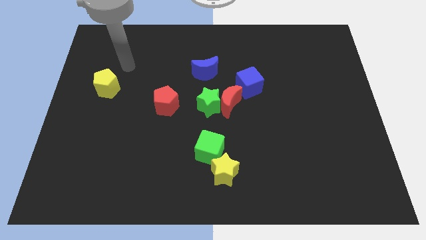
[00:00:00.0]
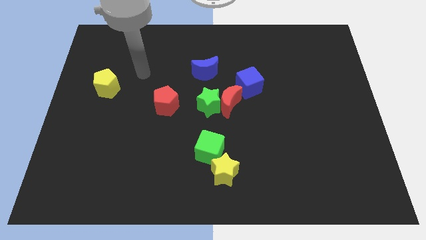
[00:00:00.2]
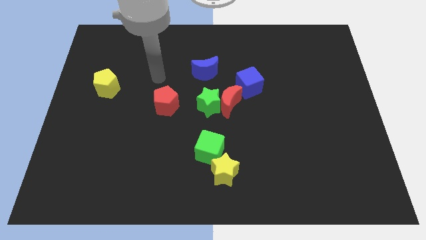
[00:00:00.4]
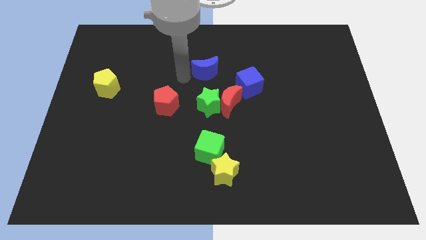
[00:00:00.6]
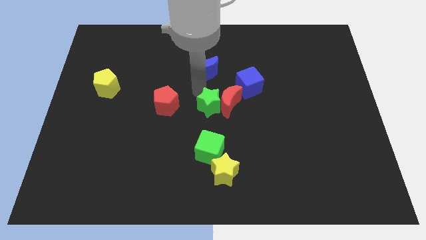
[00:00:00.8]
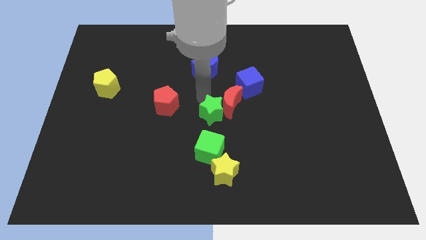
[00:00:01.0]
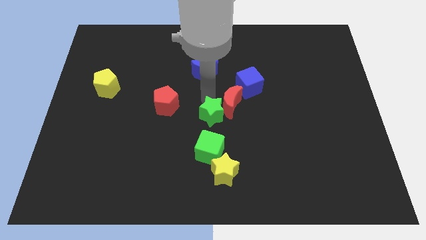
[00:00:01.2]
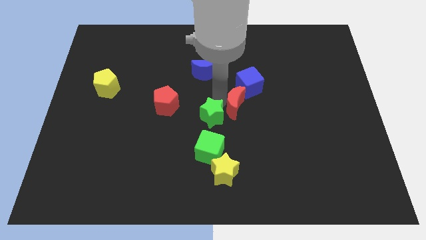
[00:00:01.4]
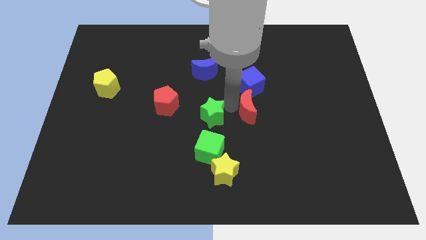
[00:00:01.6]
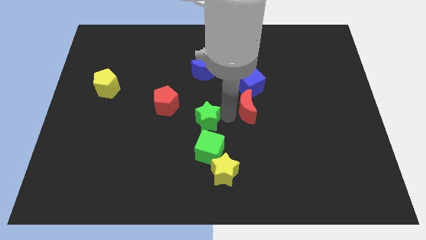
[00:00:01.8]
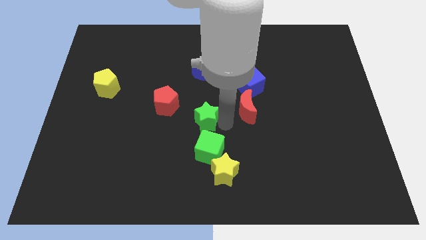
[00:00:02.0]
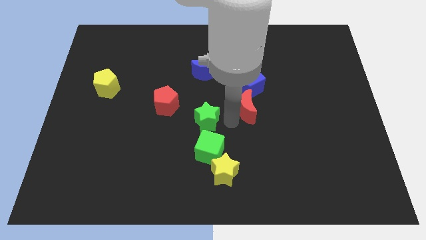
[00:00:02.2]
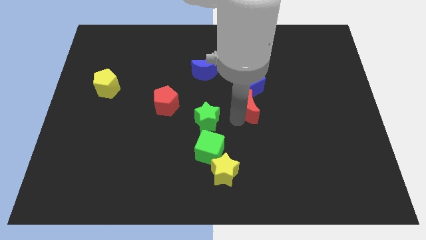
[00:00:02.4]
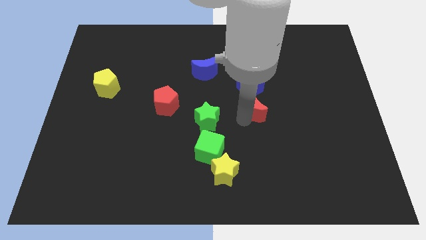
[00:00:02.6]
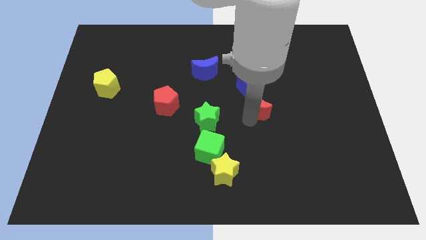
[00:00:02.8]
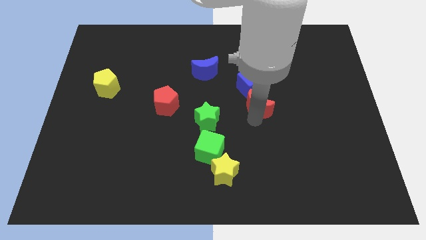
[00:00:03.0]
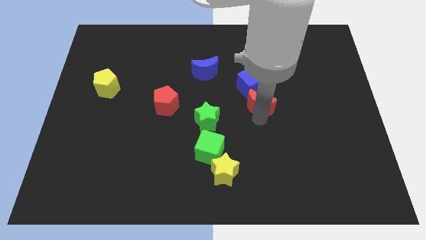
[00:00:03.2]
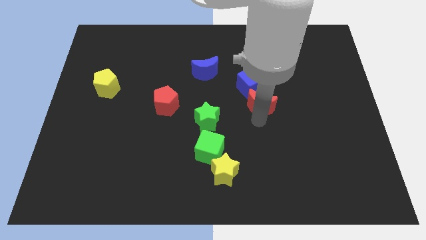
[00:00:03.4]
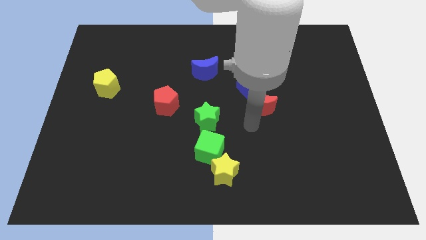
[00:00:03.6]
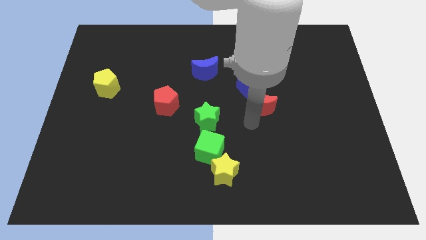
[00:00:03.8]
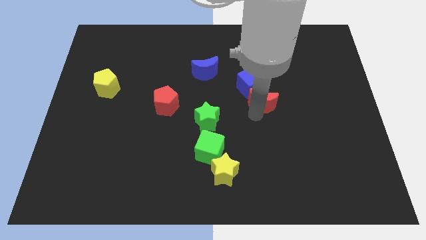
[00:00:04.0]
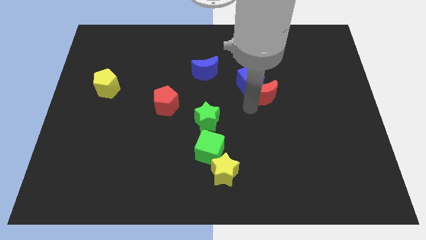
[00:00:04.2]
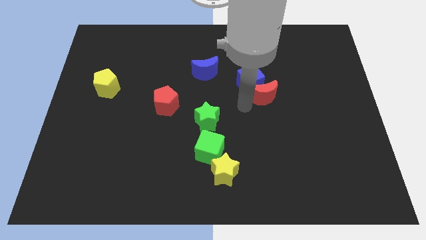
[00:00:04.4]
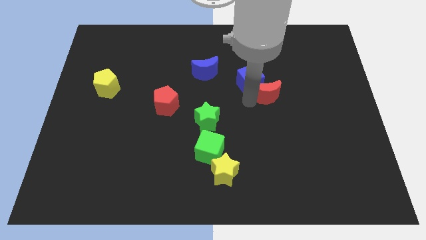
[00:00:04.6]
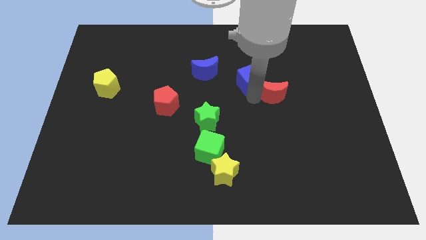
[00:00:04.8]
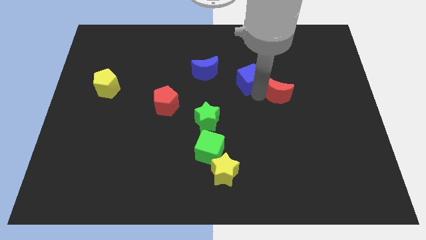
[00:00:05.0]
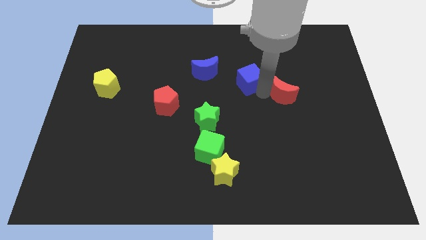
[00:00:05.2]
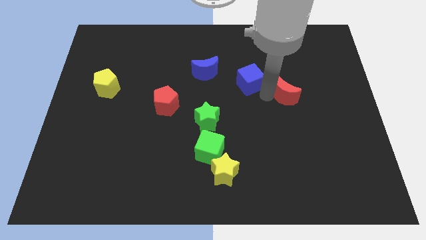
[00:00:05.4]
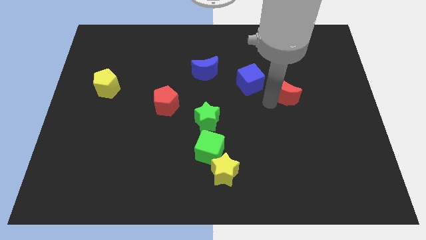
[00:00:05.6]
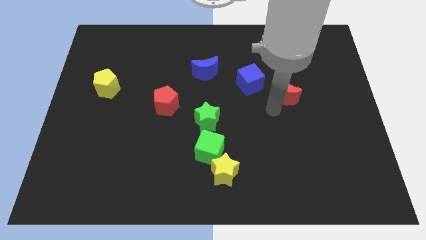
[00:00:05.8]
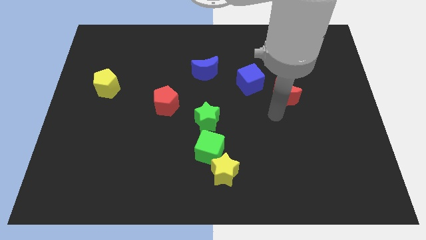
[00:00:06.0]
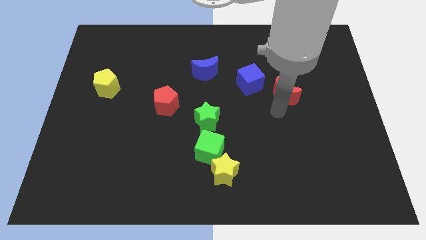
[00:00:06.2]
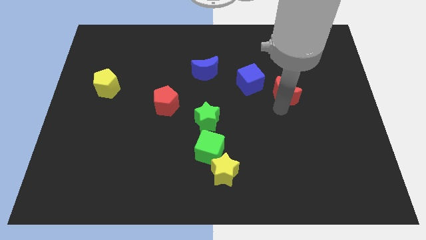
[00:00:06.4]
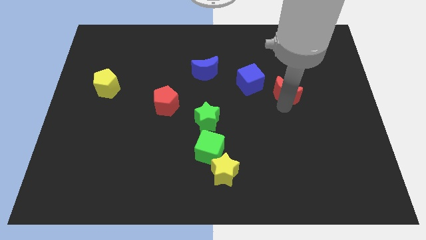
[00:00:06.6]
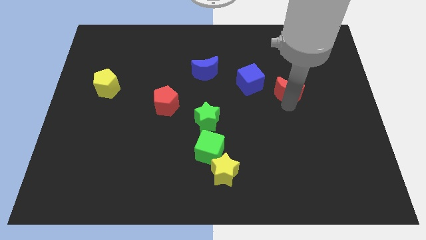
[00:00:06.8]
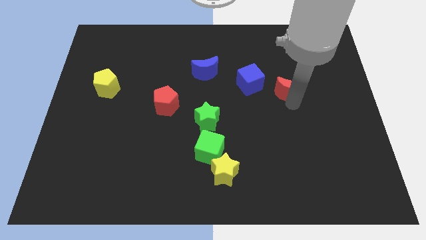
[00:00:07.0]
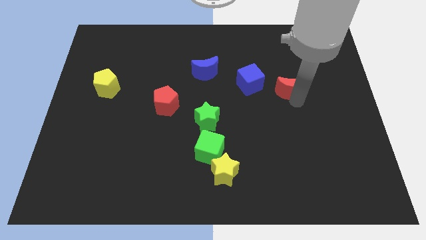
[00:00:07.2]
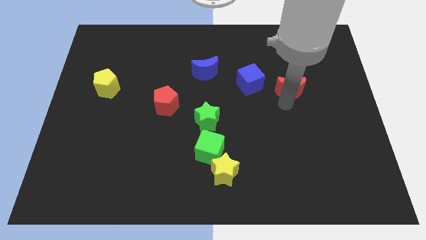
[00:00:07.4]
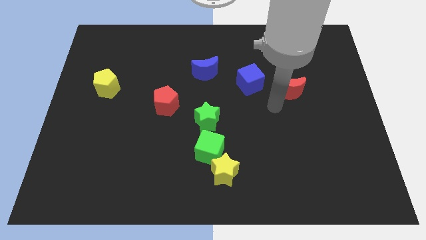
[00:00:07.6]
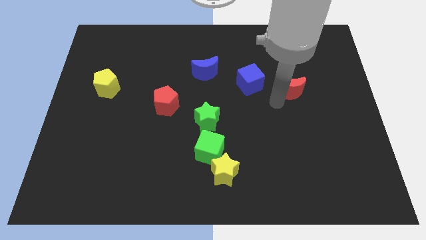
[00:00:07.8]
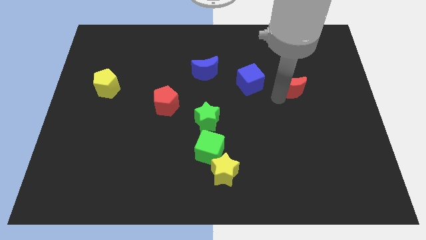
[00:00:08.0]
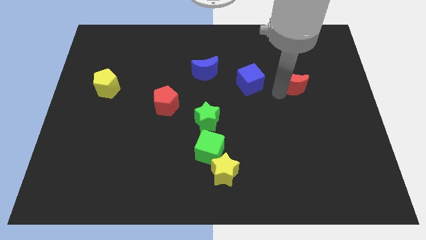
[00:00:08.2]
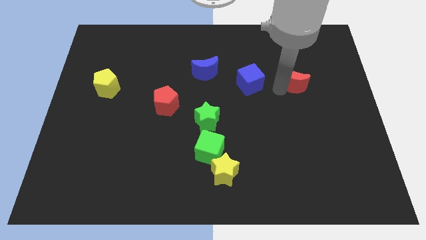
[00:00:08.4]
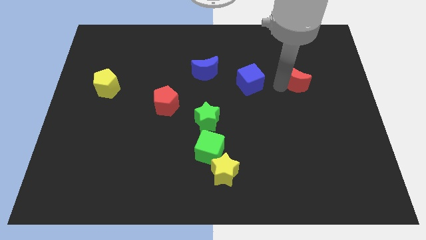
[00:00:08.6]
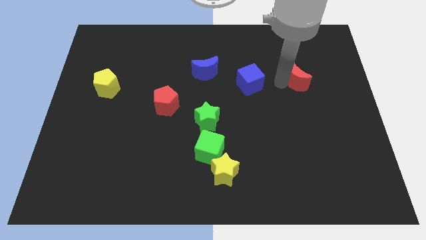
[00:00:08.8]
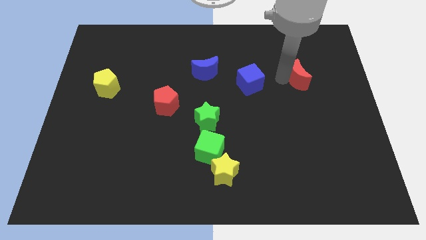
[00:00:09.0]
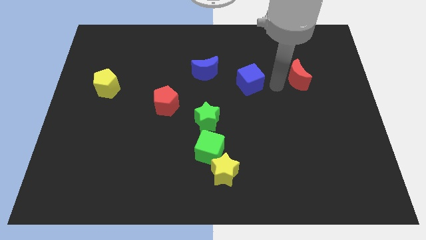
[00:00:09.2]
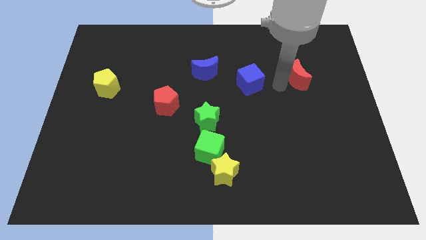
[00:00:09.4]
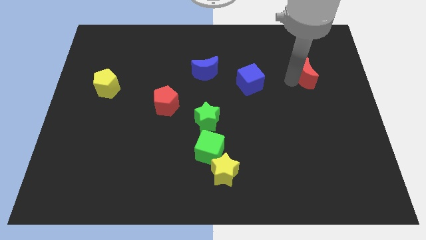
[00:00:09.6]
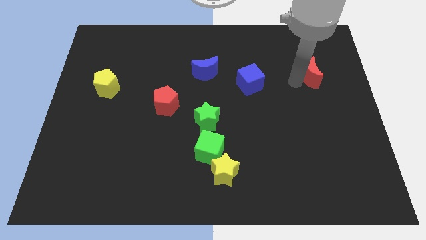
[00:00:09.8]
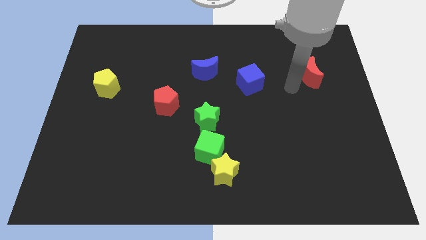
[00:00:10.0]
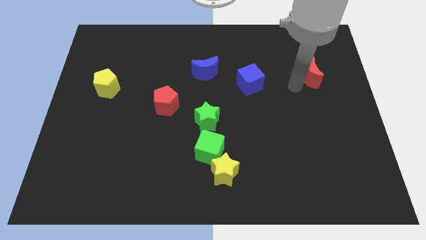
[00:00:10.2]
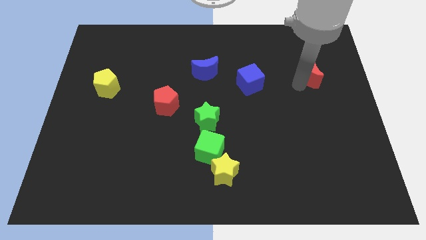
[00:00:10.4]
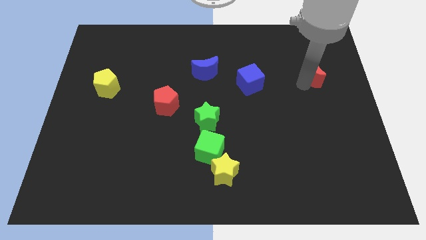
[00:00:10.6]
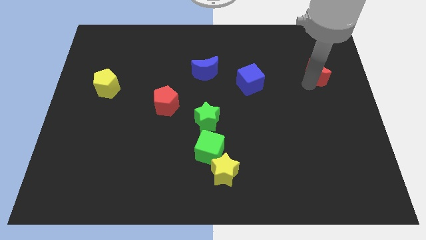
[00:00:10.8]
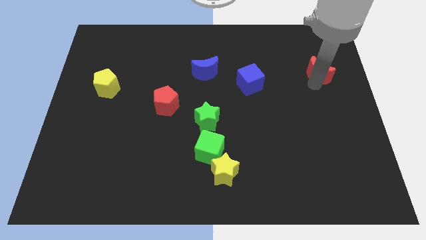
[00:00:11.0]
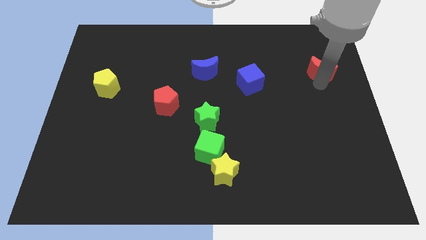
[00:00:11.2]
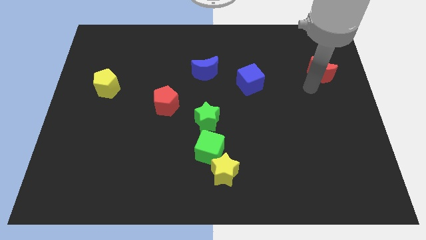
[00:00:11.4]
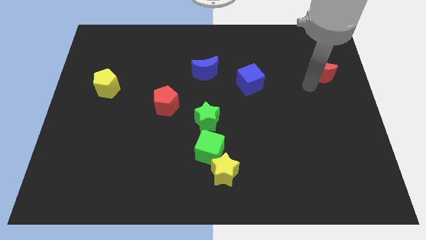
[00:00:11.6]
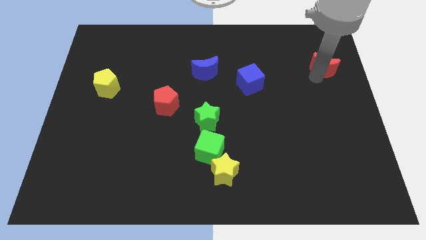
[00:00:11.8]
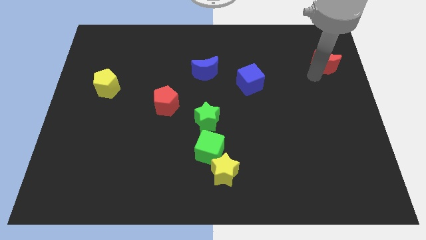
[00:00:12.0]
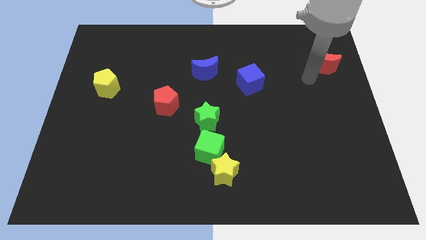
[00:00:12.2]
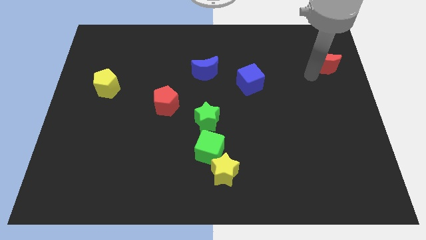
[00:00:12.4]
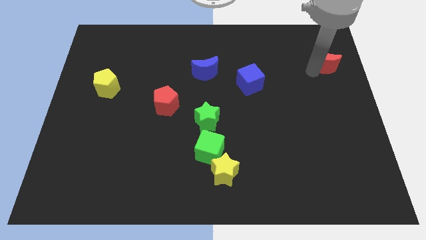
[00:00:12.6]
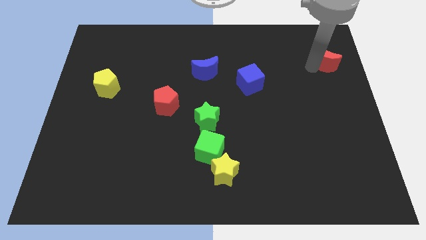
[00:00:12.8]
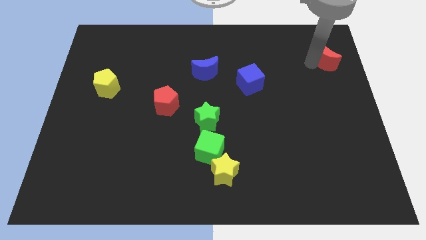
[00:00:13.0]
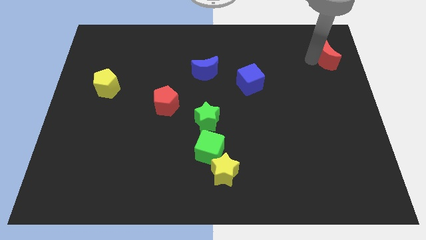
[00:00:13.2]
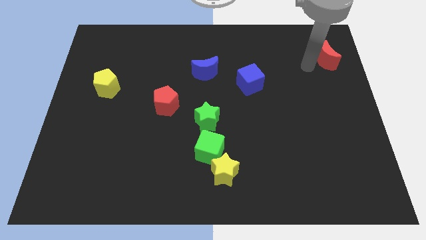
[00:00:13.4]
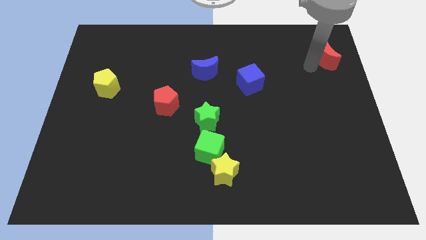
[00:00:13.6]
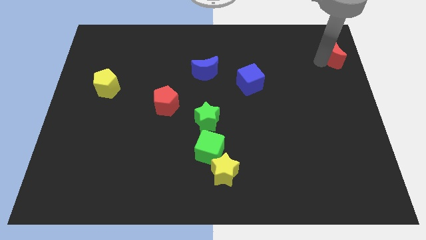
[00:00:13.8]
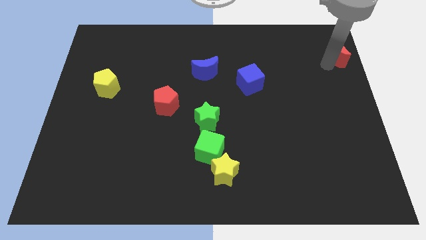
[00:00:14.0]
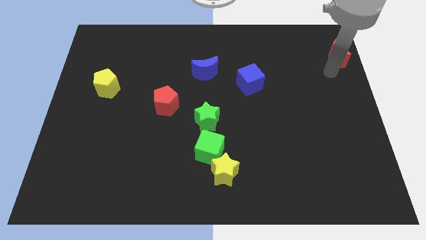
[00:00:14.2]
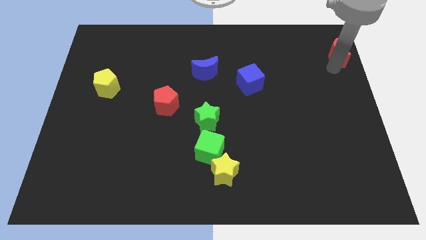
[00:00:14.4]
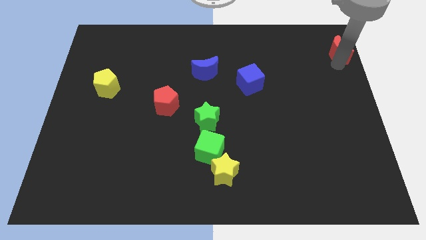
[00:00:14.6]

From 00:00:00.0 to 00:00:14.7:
slide the red moon to the top right
